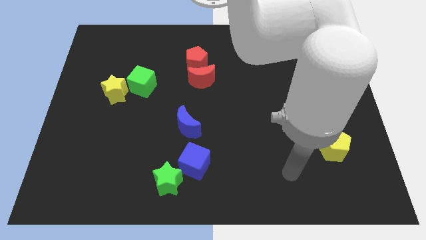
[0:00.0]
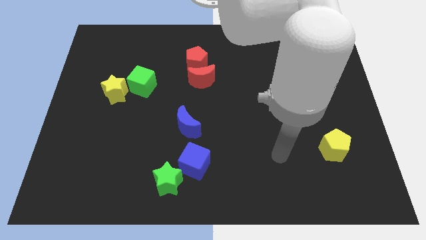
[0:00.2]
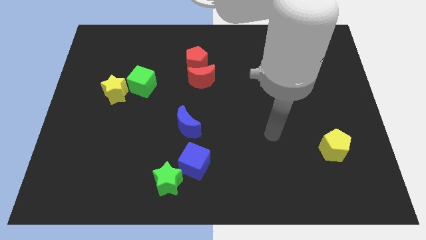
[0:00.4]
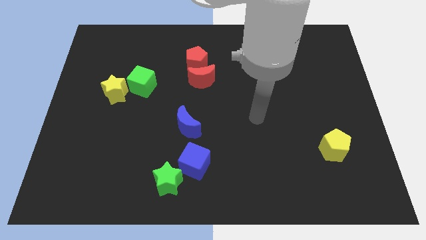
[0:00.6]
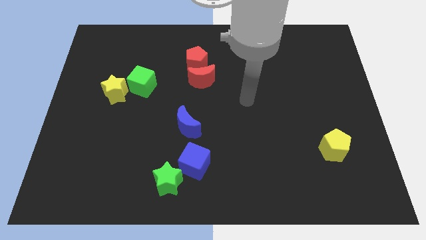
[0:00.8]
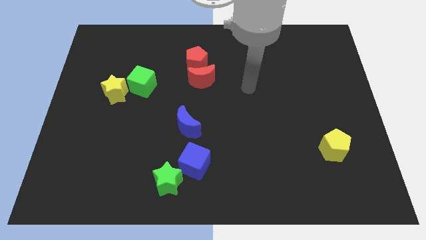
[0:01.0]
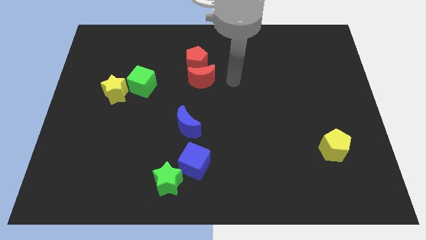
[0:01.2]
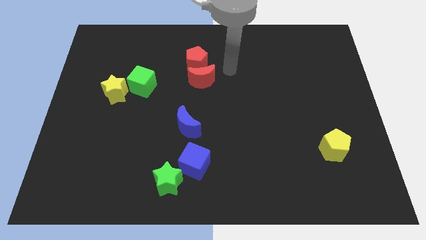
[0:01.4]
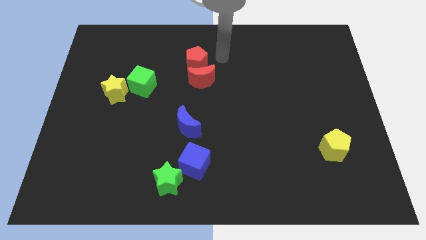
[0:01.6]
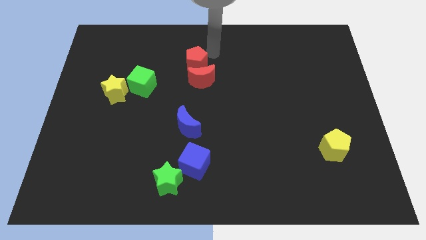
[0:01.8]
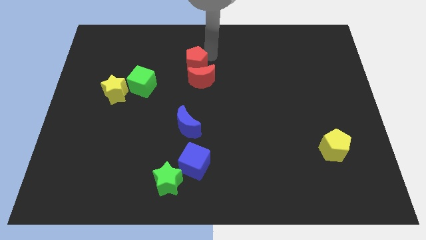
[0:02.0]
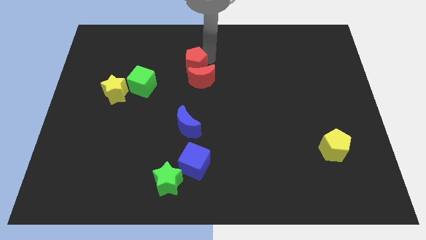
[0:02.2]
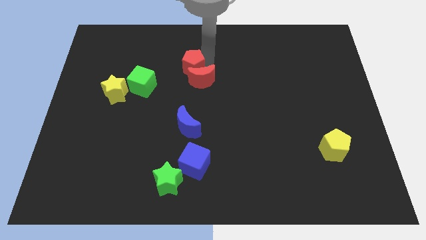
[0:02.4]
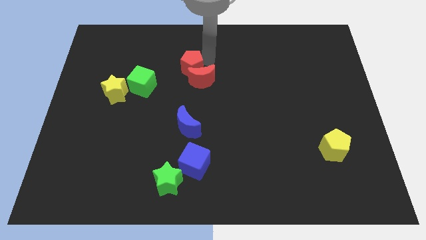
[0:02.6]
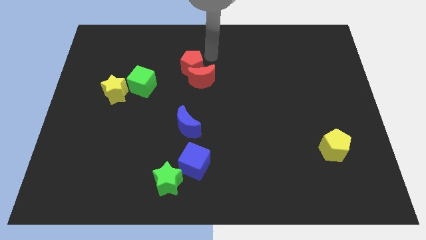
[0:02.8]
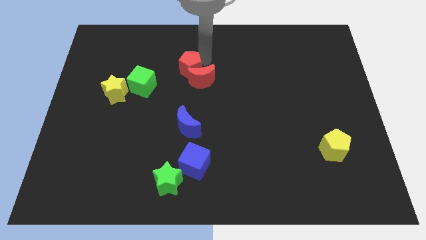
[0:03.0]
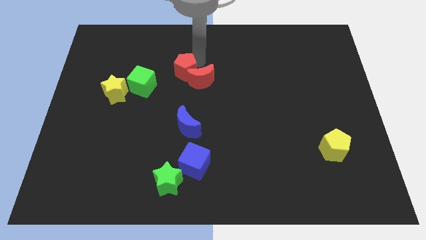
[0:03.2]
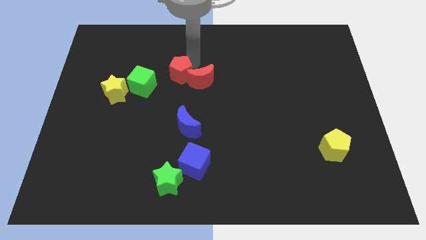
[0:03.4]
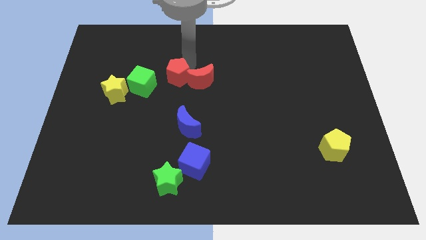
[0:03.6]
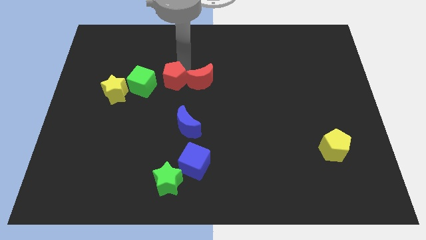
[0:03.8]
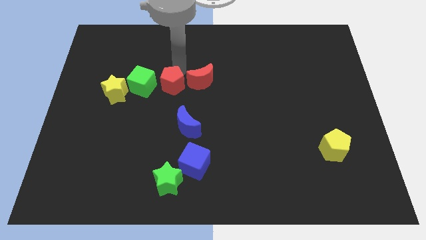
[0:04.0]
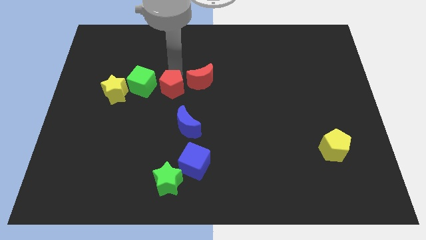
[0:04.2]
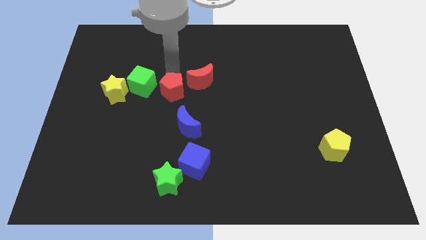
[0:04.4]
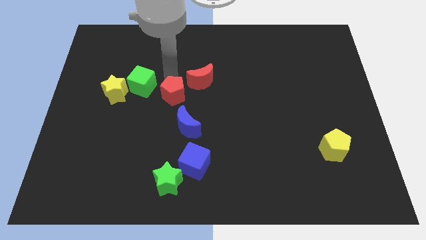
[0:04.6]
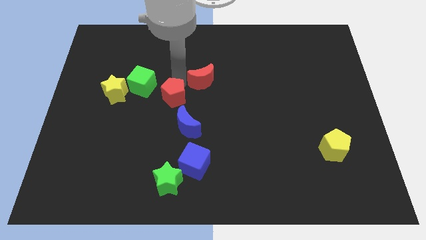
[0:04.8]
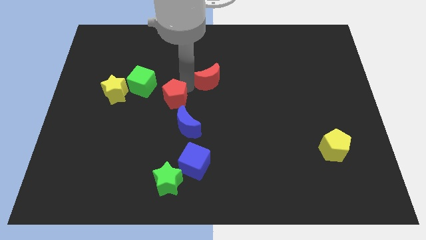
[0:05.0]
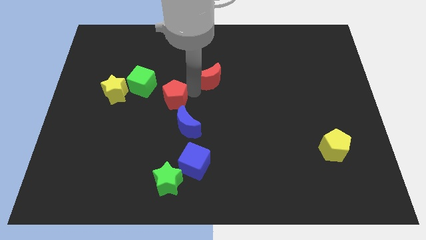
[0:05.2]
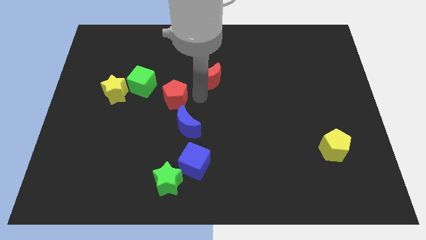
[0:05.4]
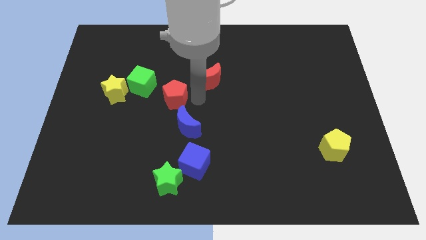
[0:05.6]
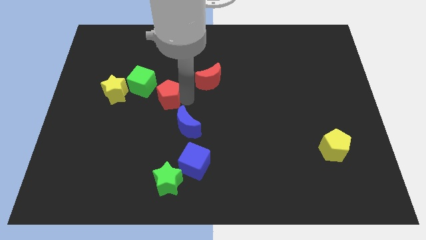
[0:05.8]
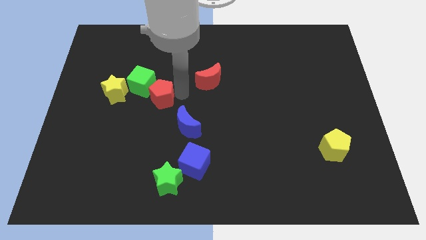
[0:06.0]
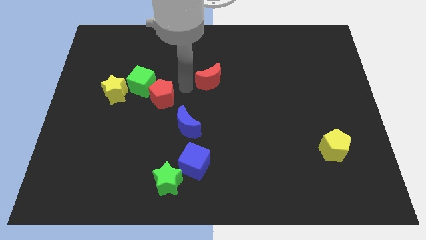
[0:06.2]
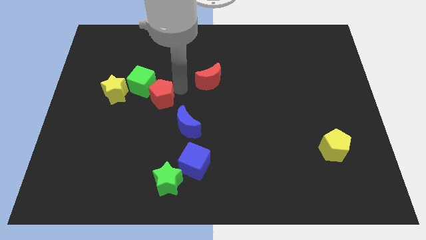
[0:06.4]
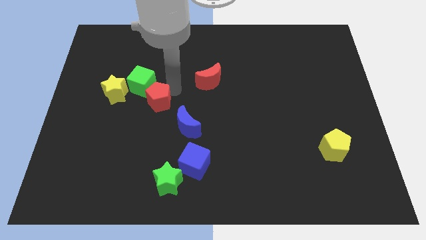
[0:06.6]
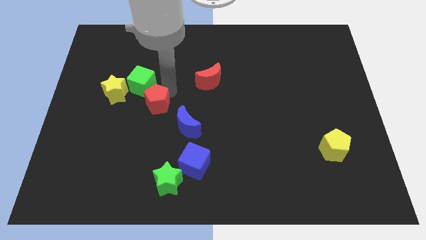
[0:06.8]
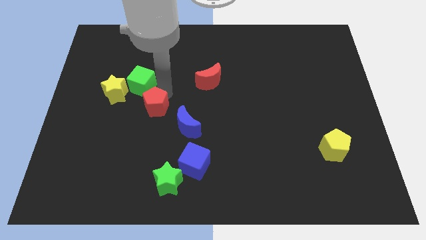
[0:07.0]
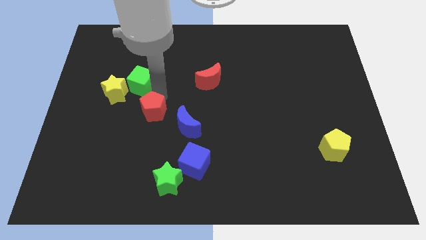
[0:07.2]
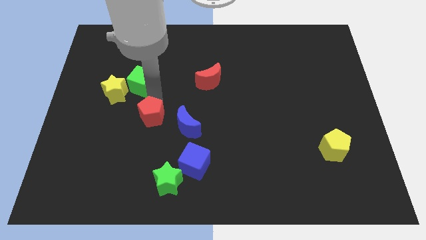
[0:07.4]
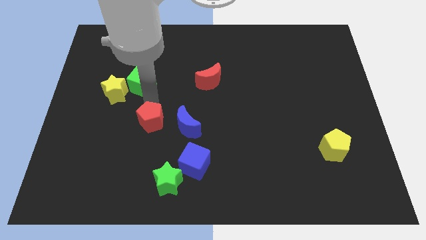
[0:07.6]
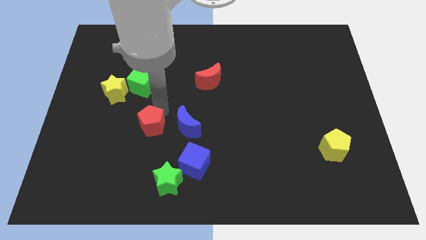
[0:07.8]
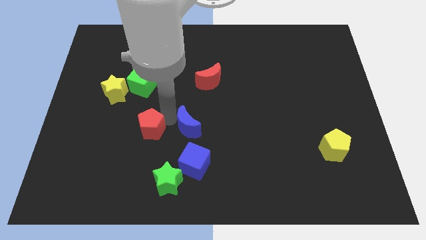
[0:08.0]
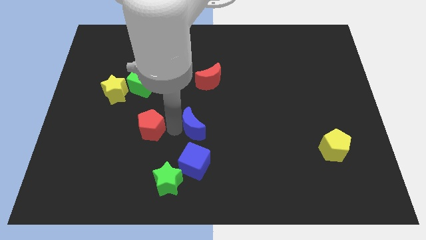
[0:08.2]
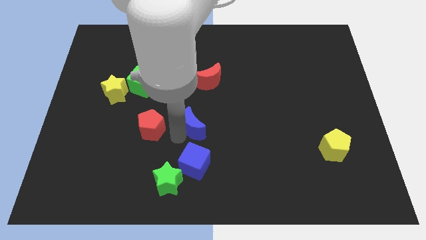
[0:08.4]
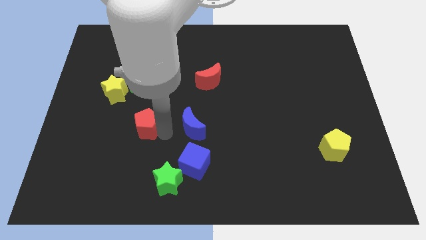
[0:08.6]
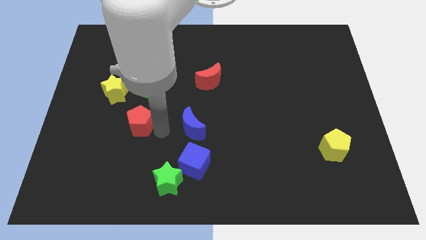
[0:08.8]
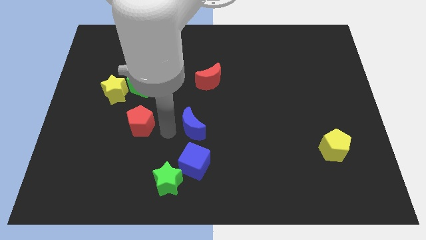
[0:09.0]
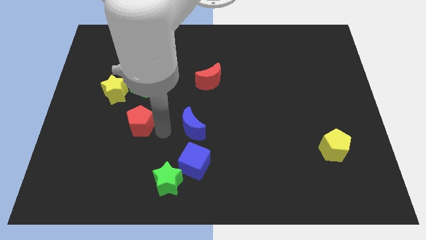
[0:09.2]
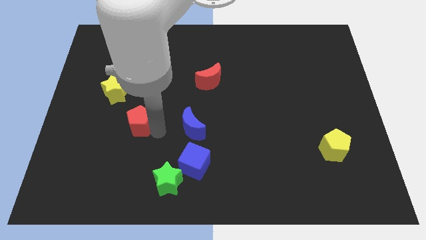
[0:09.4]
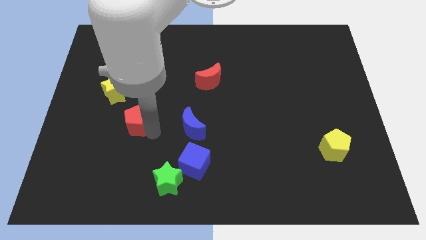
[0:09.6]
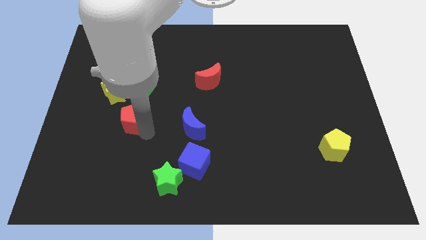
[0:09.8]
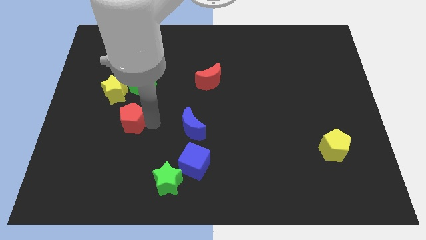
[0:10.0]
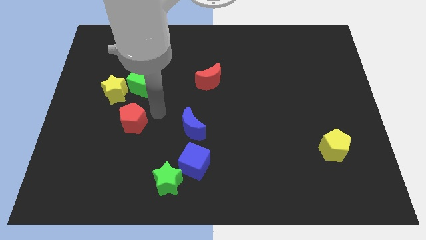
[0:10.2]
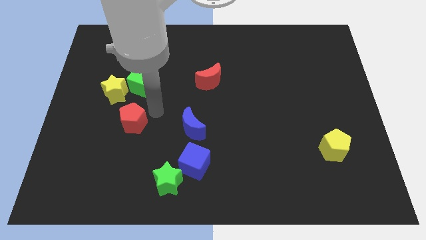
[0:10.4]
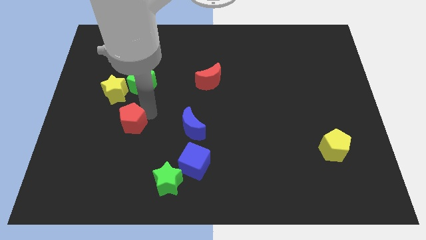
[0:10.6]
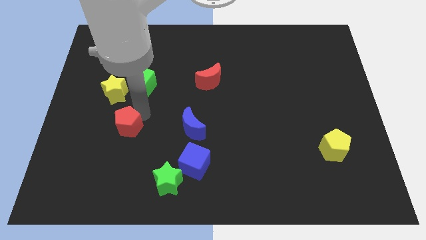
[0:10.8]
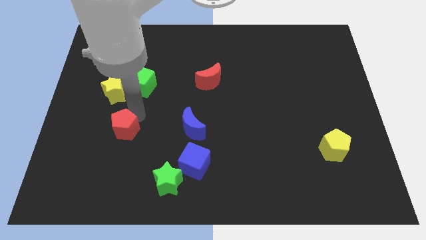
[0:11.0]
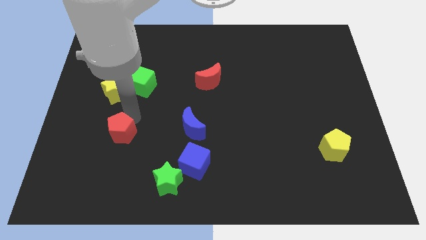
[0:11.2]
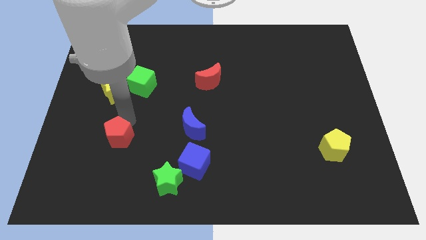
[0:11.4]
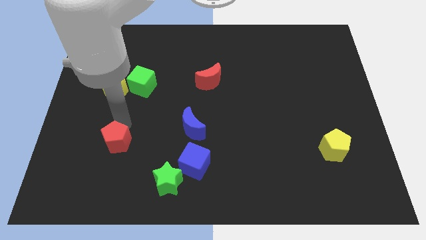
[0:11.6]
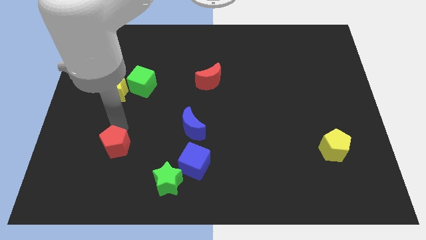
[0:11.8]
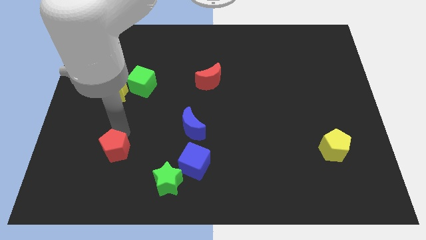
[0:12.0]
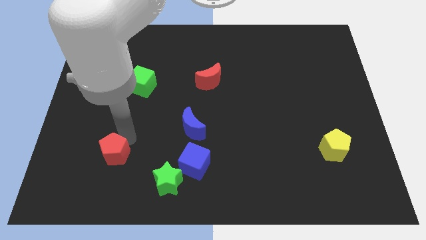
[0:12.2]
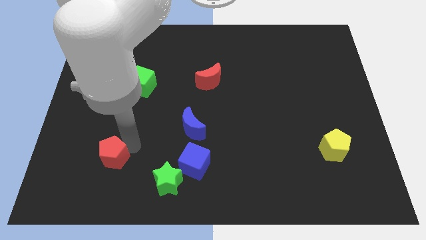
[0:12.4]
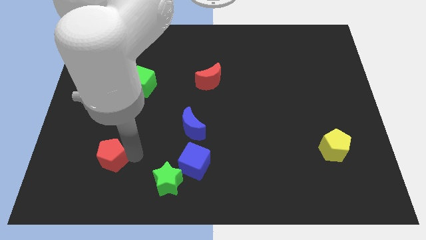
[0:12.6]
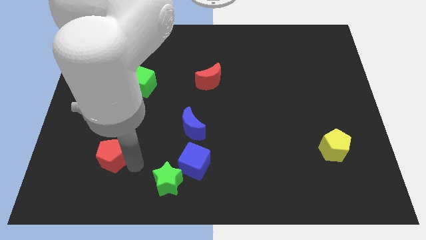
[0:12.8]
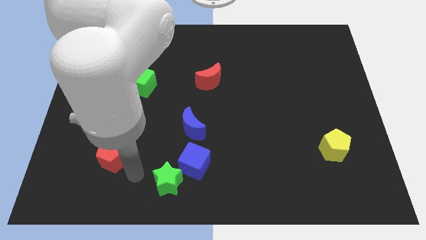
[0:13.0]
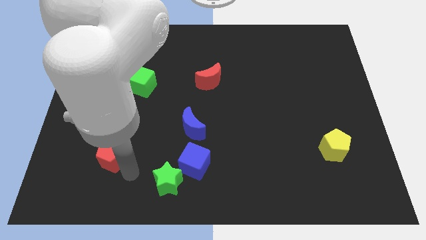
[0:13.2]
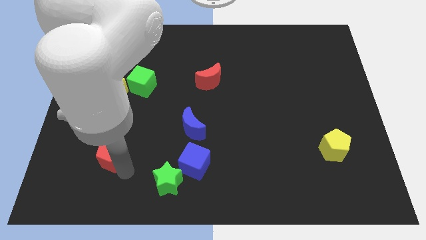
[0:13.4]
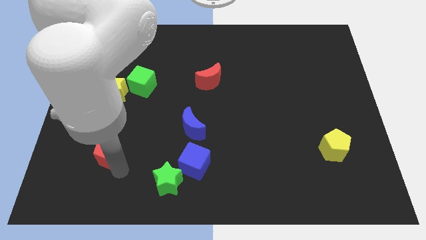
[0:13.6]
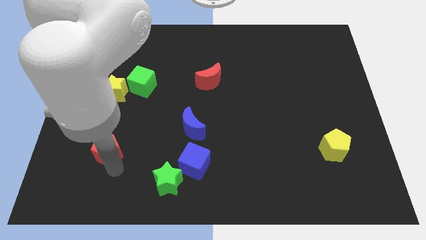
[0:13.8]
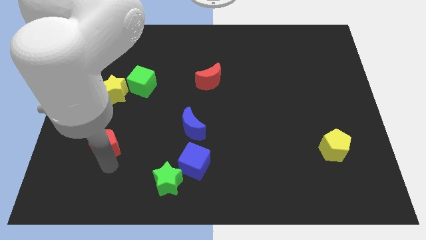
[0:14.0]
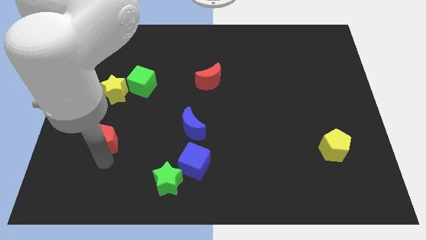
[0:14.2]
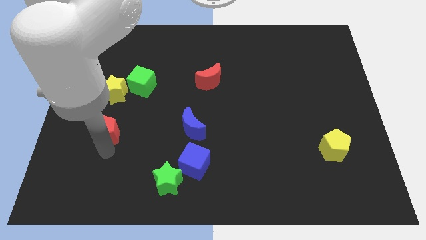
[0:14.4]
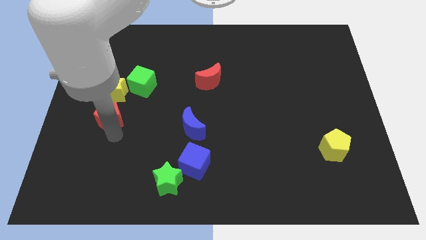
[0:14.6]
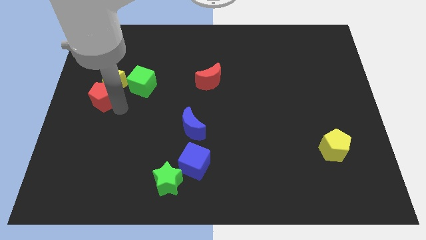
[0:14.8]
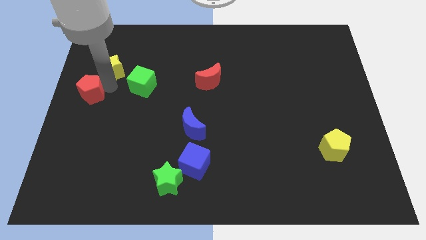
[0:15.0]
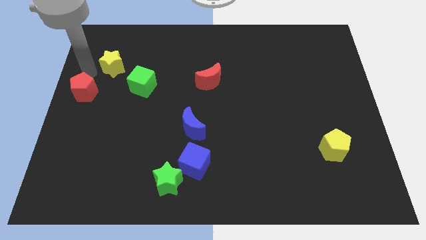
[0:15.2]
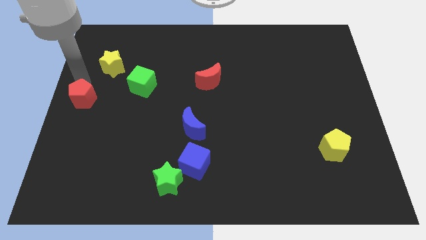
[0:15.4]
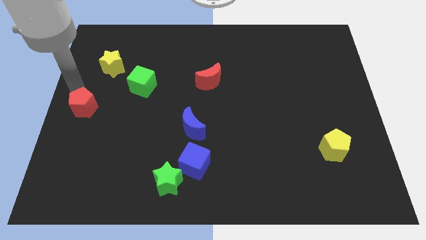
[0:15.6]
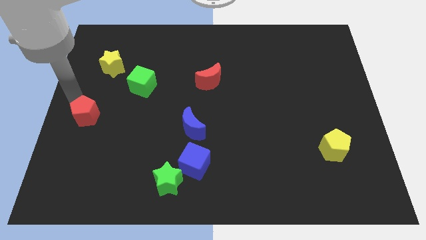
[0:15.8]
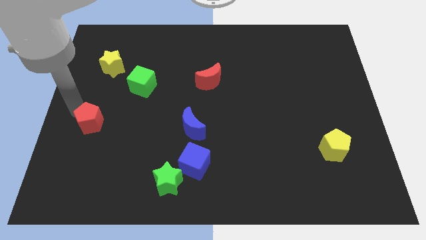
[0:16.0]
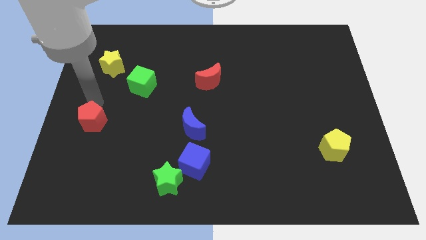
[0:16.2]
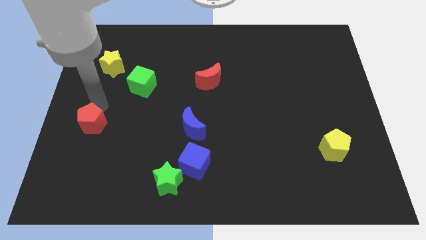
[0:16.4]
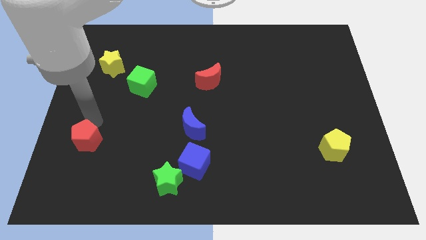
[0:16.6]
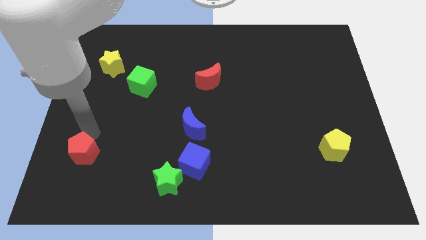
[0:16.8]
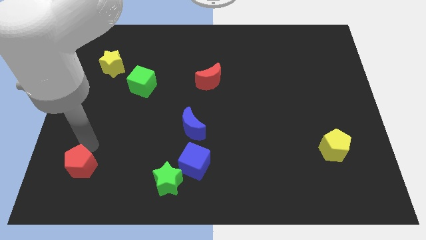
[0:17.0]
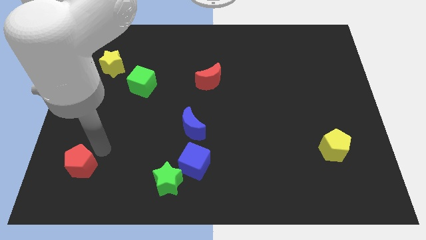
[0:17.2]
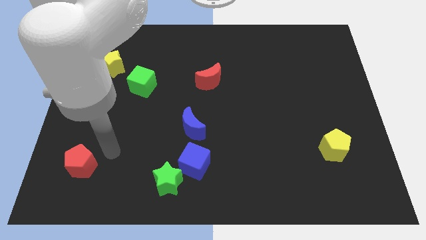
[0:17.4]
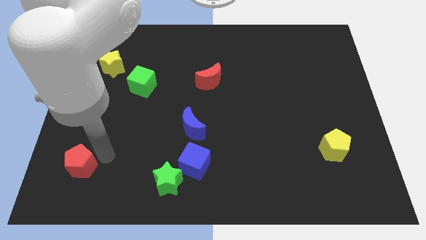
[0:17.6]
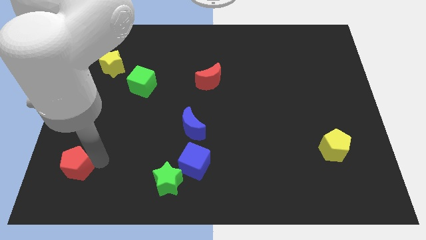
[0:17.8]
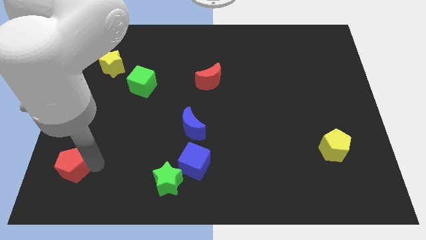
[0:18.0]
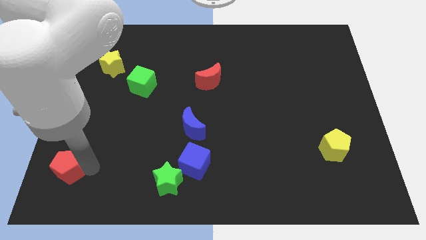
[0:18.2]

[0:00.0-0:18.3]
put the red pentagon to the bottom left
